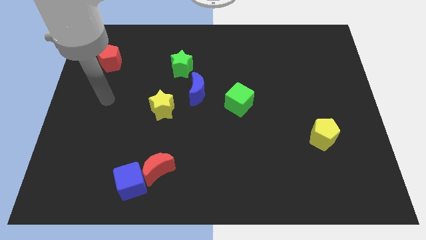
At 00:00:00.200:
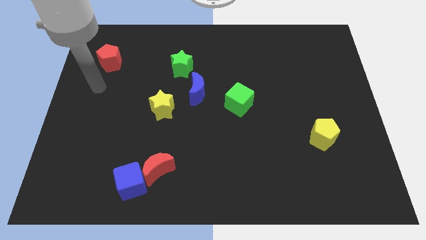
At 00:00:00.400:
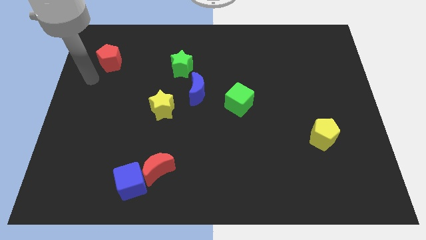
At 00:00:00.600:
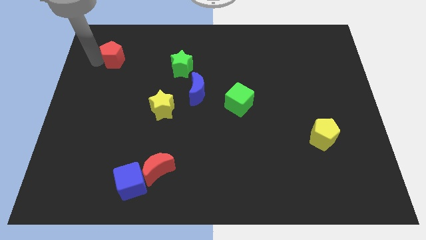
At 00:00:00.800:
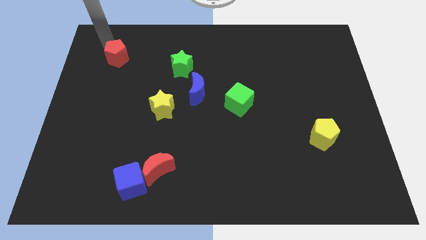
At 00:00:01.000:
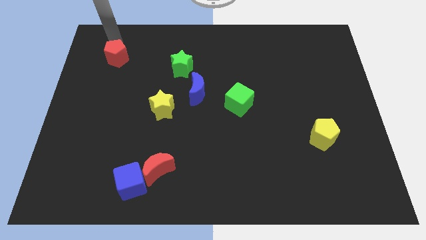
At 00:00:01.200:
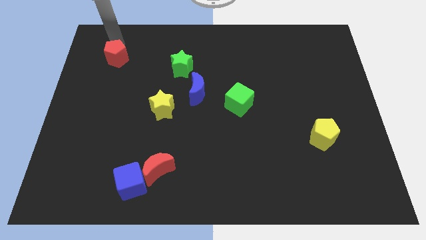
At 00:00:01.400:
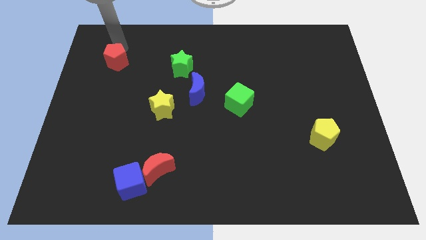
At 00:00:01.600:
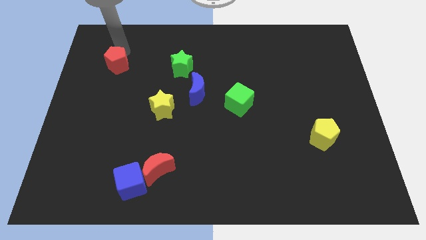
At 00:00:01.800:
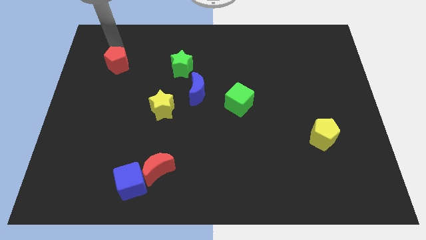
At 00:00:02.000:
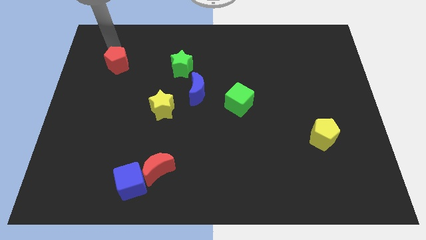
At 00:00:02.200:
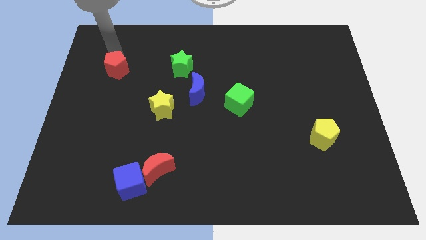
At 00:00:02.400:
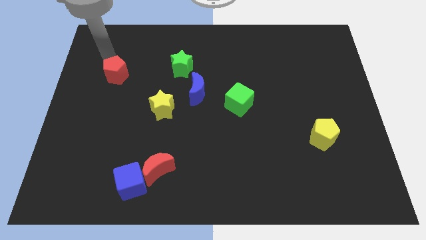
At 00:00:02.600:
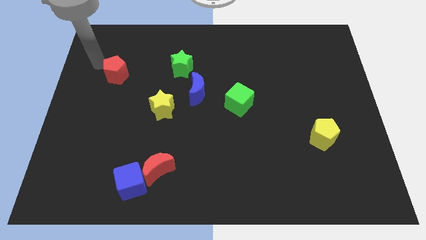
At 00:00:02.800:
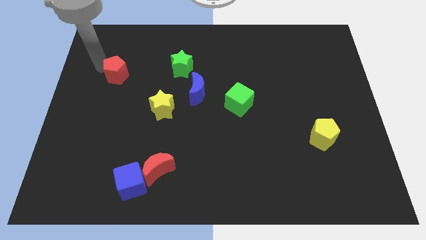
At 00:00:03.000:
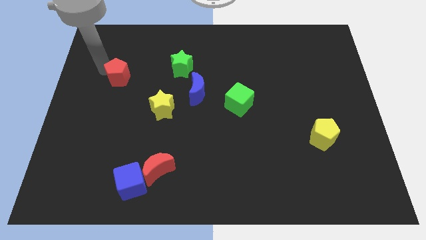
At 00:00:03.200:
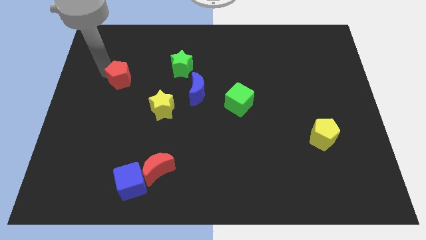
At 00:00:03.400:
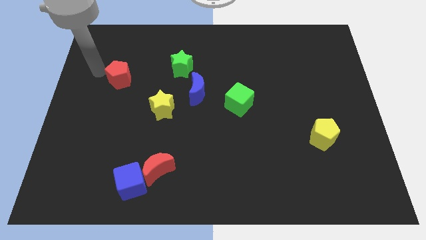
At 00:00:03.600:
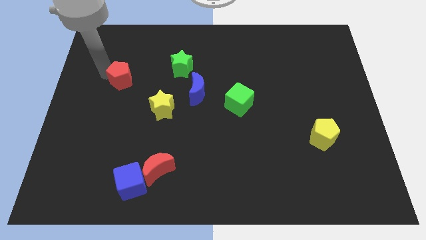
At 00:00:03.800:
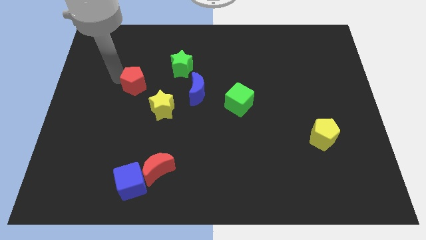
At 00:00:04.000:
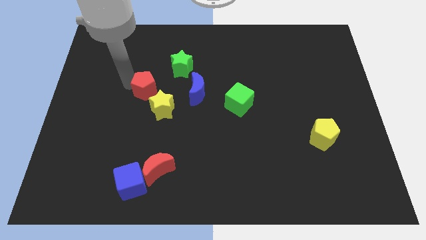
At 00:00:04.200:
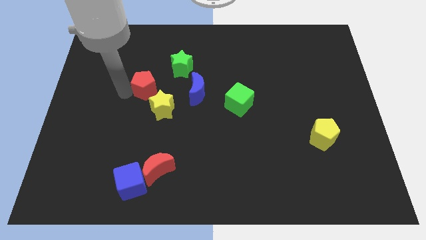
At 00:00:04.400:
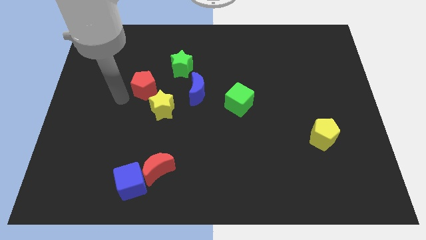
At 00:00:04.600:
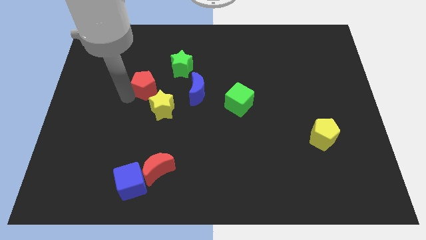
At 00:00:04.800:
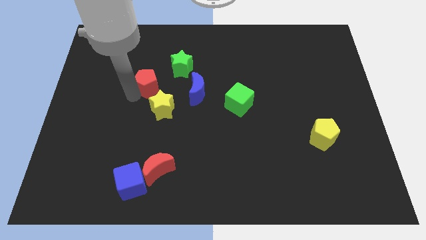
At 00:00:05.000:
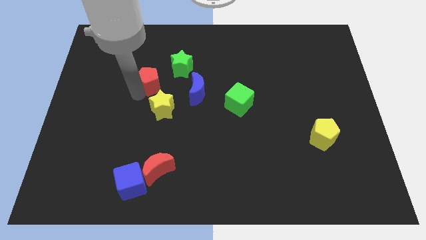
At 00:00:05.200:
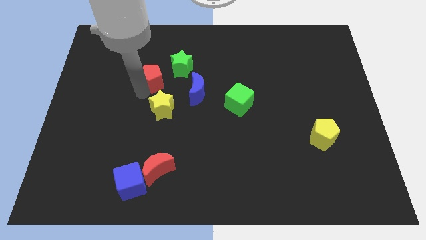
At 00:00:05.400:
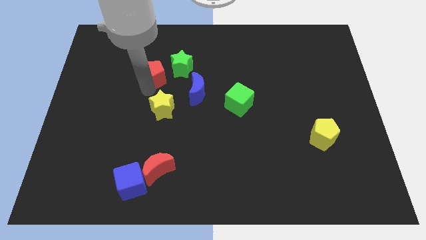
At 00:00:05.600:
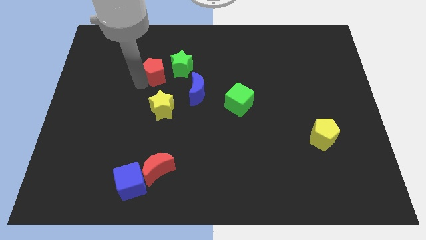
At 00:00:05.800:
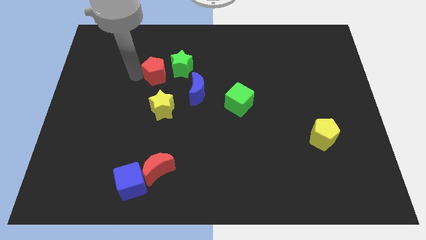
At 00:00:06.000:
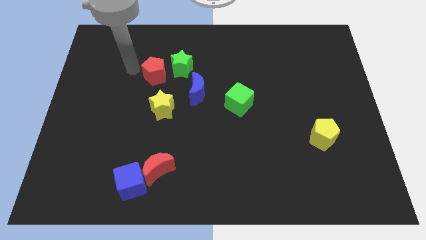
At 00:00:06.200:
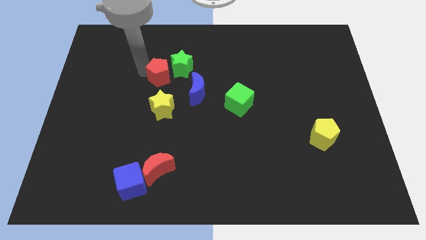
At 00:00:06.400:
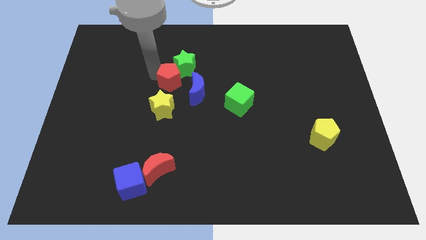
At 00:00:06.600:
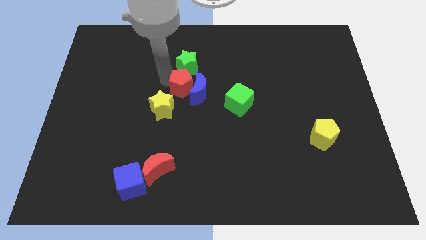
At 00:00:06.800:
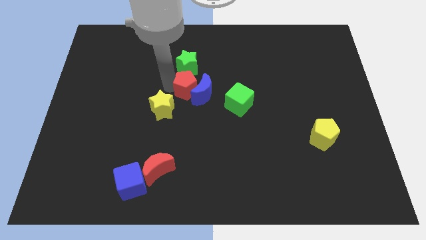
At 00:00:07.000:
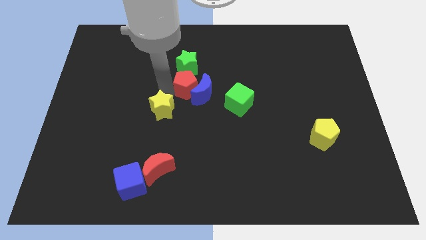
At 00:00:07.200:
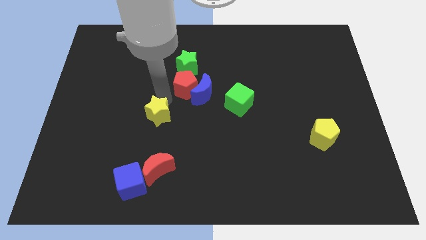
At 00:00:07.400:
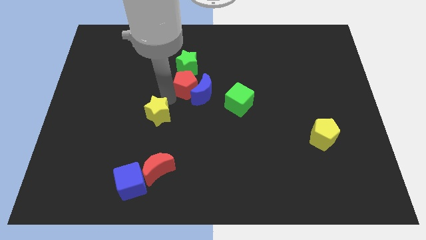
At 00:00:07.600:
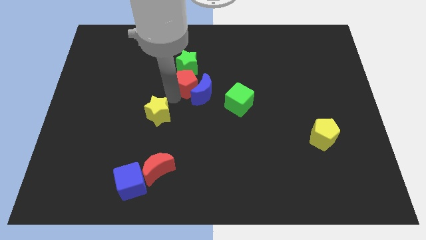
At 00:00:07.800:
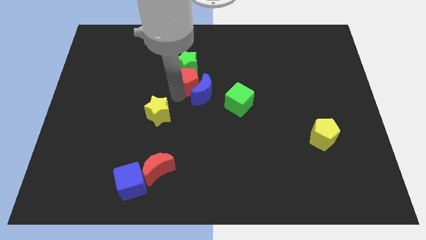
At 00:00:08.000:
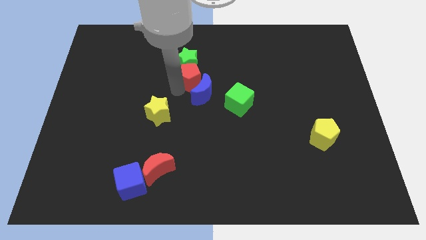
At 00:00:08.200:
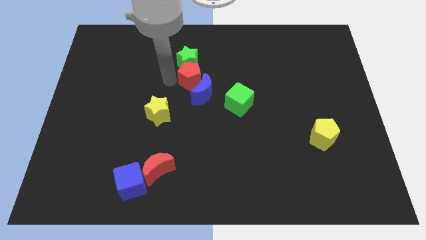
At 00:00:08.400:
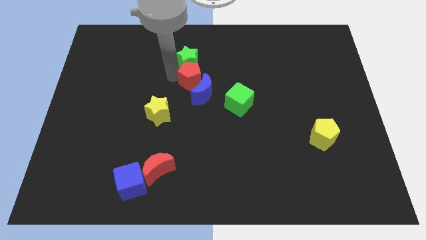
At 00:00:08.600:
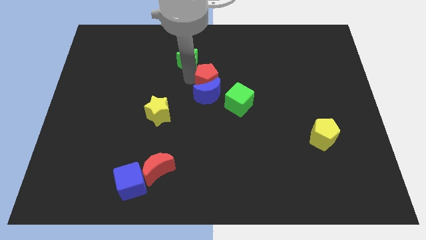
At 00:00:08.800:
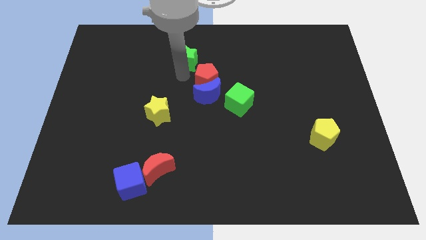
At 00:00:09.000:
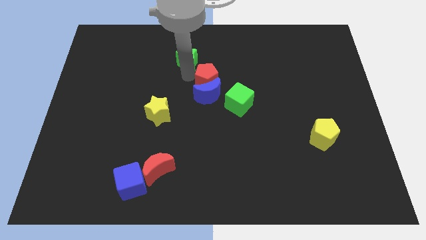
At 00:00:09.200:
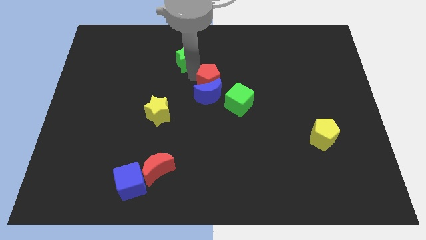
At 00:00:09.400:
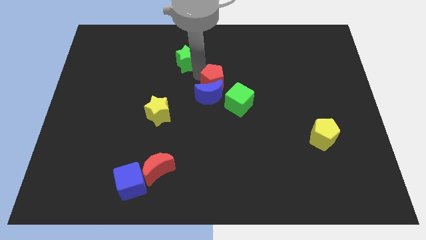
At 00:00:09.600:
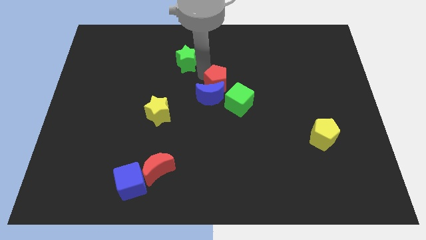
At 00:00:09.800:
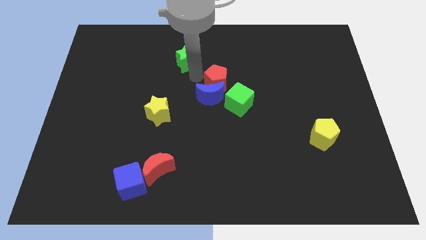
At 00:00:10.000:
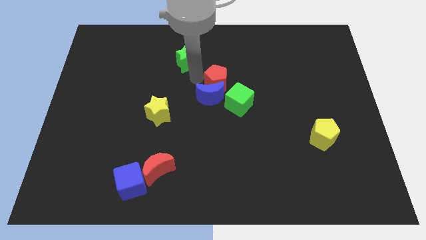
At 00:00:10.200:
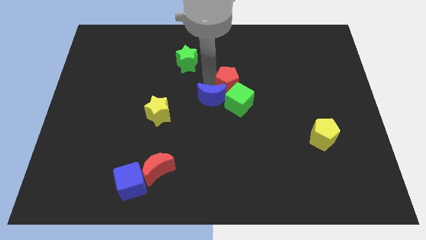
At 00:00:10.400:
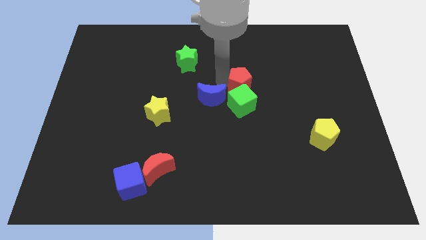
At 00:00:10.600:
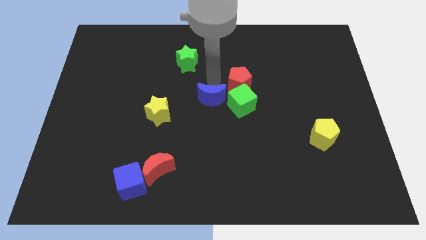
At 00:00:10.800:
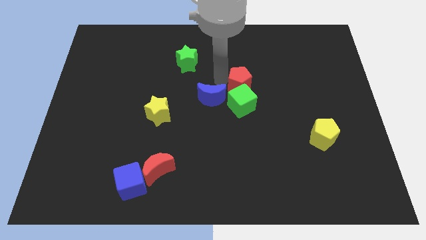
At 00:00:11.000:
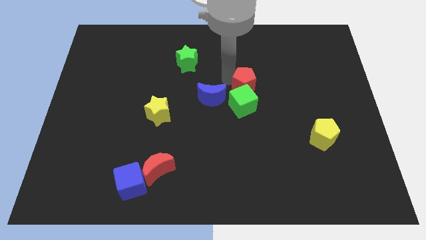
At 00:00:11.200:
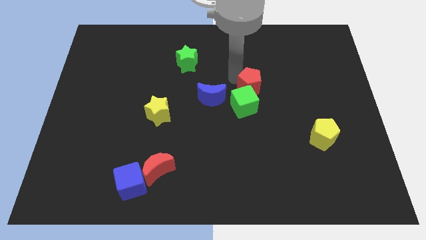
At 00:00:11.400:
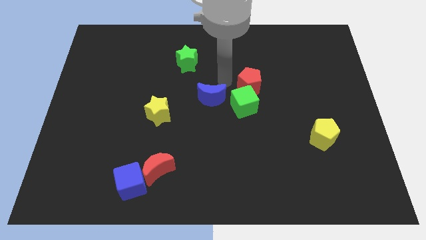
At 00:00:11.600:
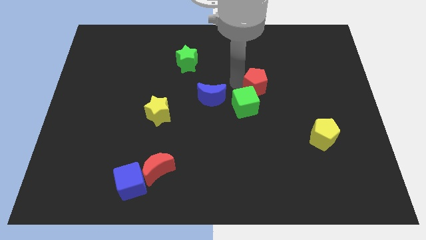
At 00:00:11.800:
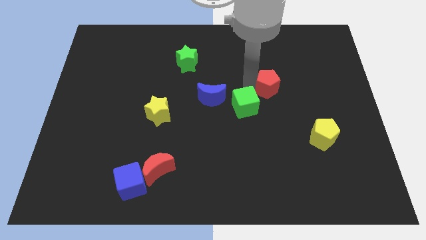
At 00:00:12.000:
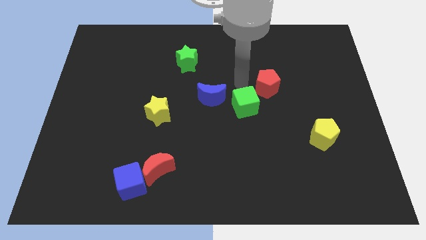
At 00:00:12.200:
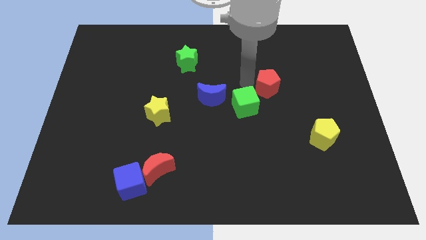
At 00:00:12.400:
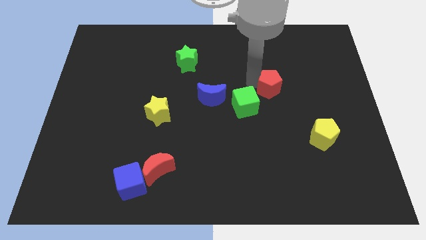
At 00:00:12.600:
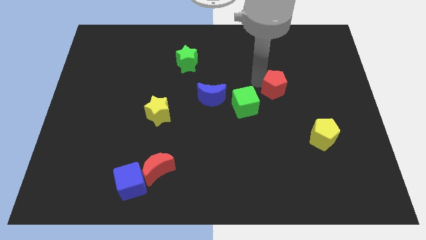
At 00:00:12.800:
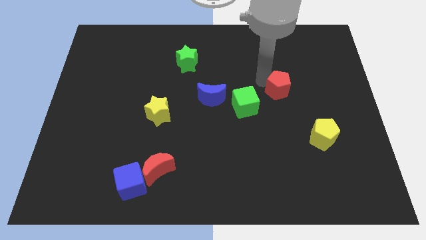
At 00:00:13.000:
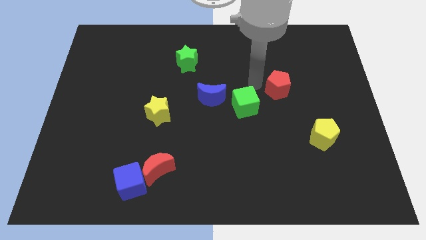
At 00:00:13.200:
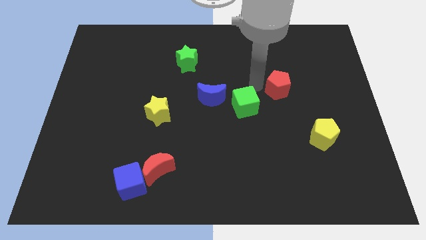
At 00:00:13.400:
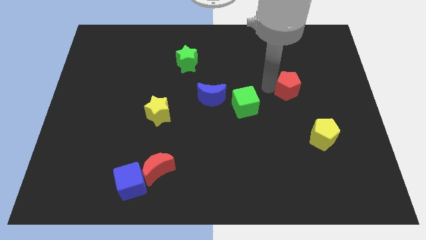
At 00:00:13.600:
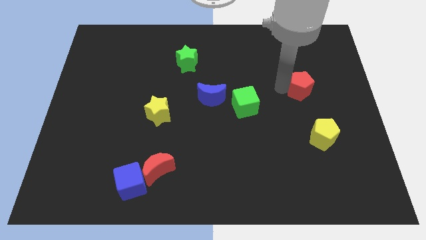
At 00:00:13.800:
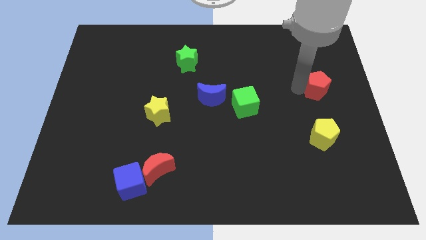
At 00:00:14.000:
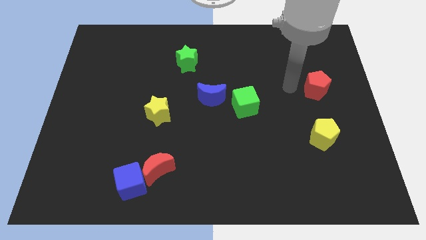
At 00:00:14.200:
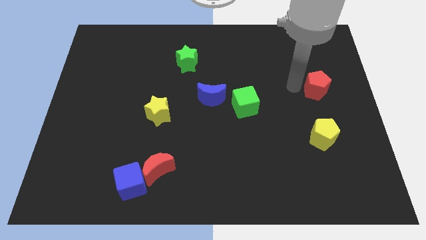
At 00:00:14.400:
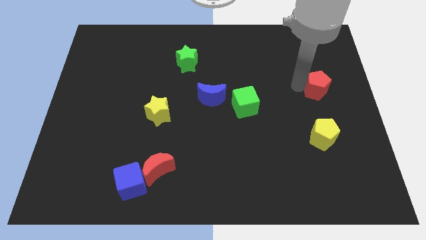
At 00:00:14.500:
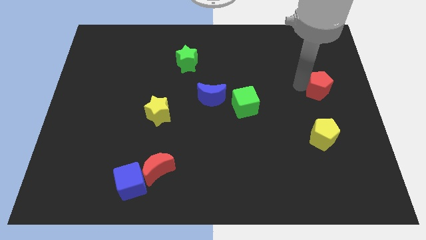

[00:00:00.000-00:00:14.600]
put the red pentagon to the right side of the board
